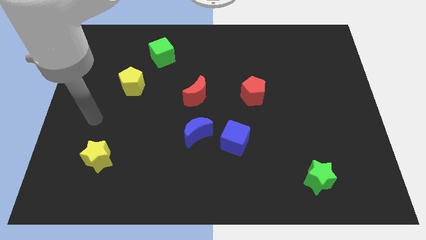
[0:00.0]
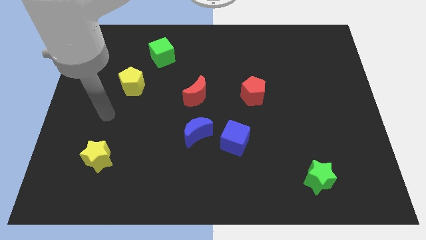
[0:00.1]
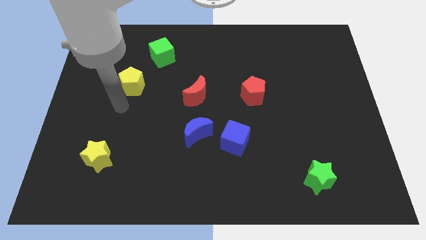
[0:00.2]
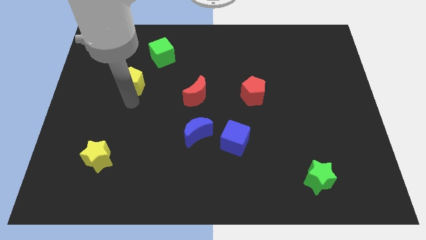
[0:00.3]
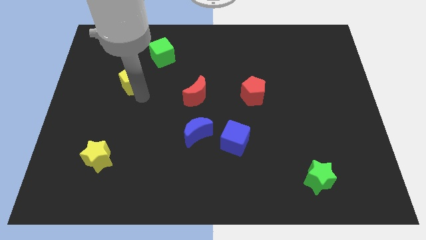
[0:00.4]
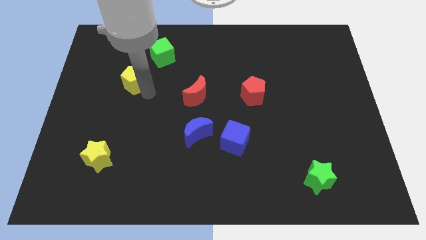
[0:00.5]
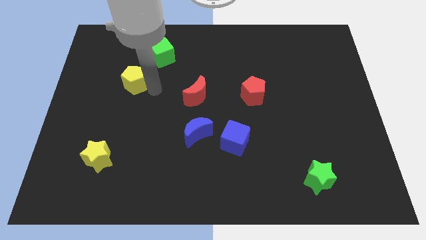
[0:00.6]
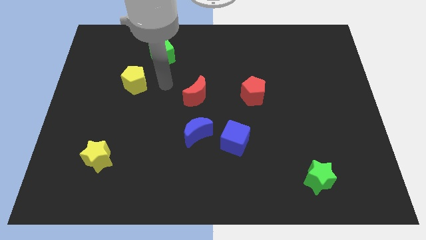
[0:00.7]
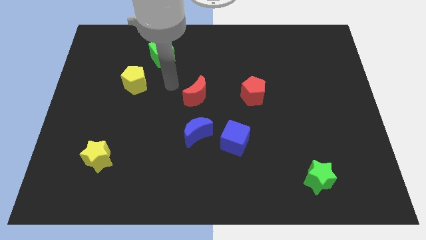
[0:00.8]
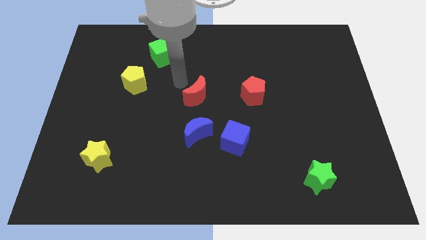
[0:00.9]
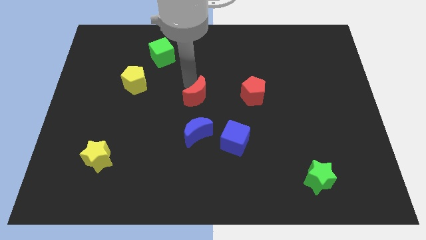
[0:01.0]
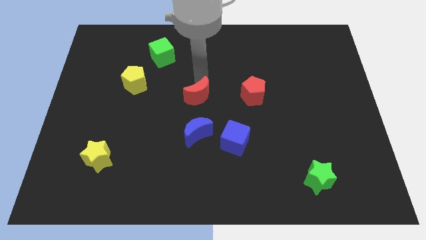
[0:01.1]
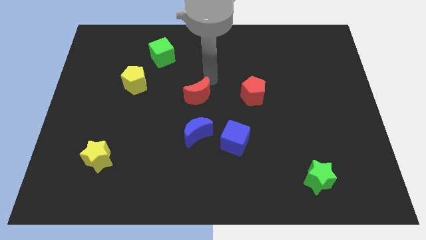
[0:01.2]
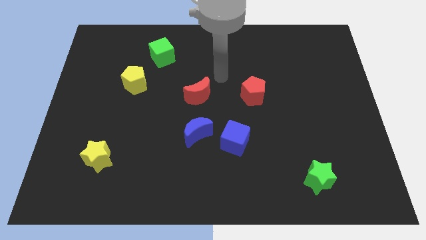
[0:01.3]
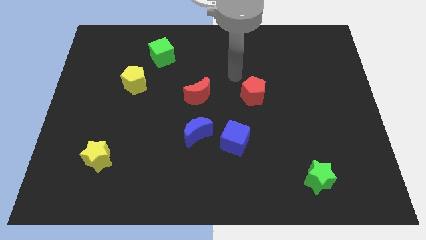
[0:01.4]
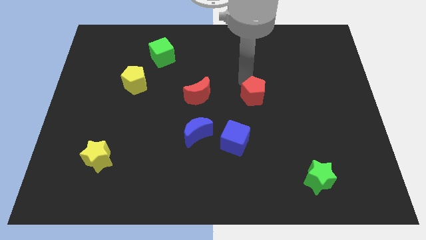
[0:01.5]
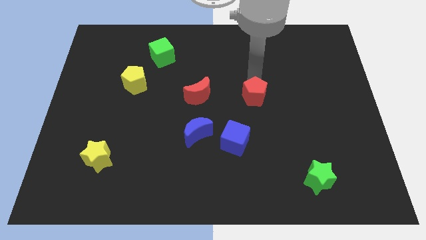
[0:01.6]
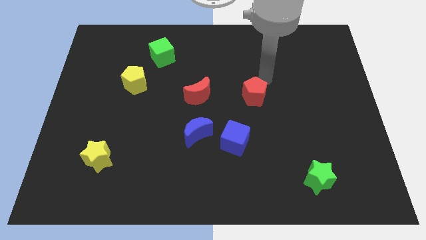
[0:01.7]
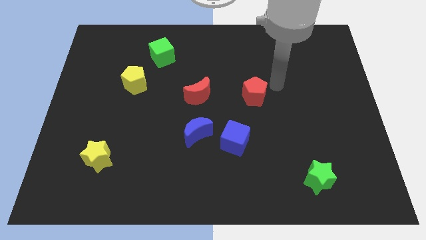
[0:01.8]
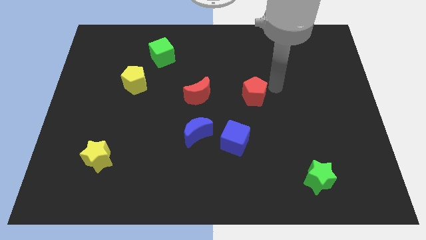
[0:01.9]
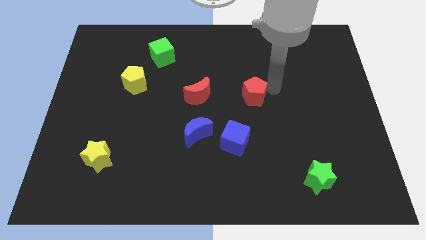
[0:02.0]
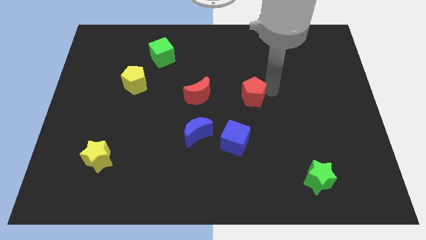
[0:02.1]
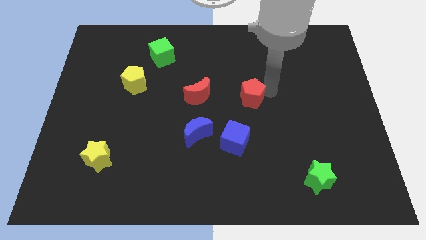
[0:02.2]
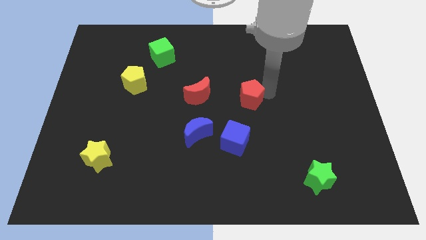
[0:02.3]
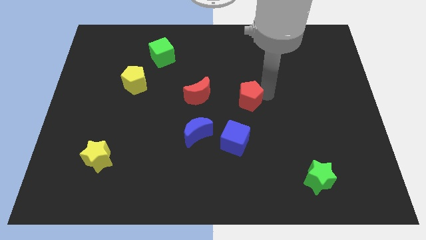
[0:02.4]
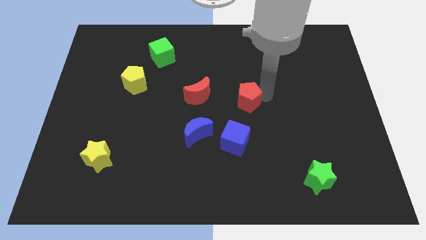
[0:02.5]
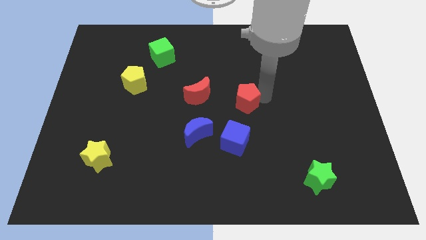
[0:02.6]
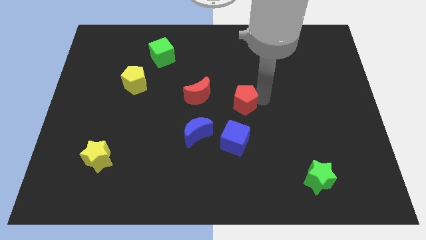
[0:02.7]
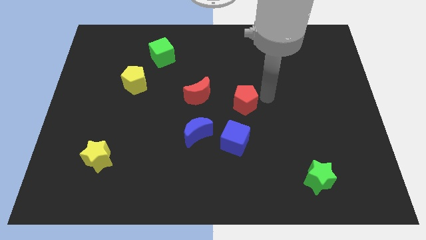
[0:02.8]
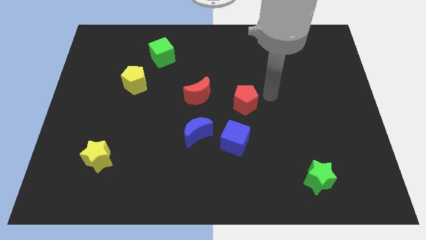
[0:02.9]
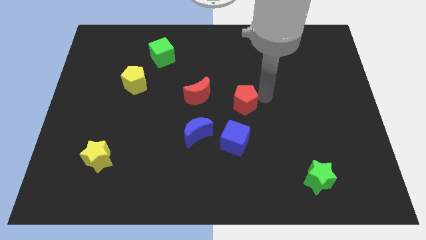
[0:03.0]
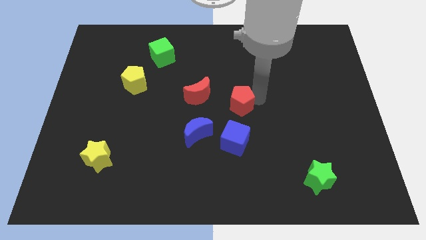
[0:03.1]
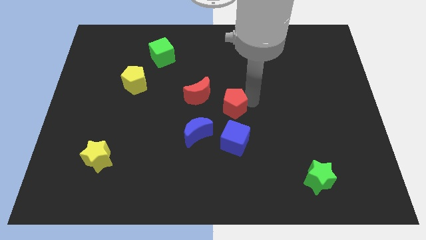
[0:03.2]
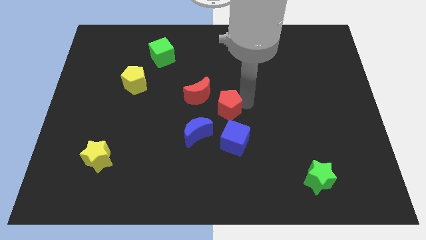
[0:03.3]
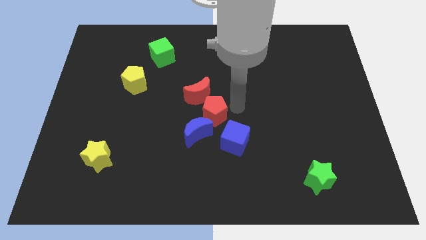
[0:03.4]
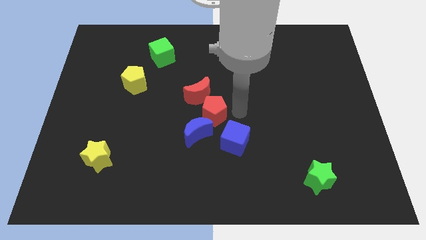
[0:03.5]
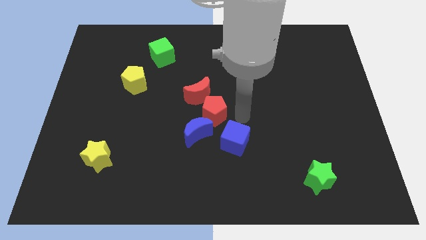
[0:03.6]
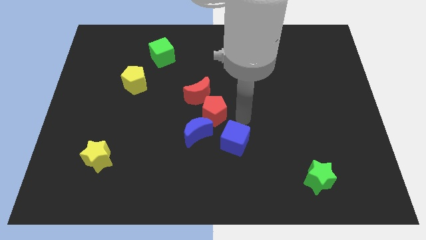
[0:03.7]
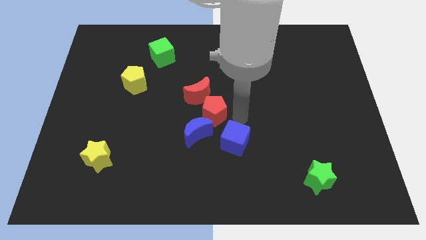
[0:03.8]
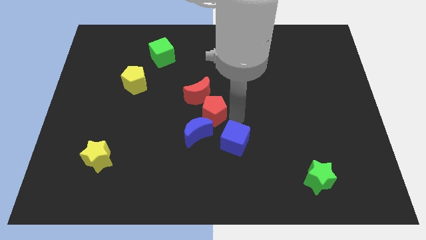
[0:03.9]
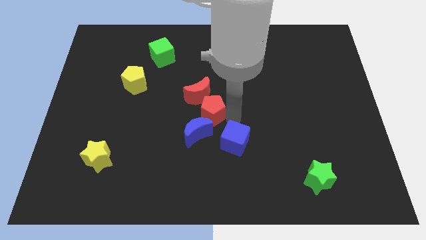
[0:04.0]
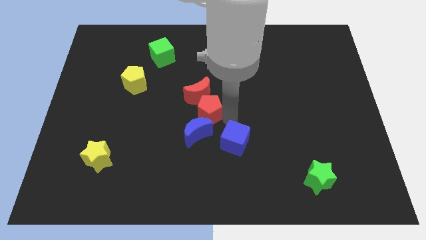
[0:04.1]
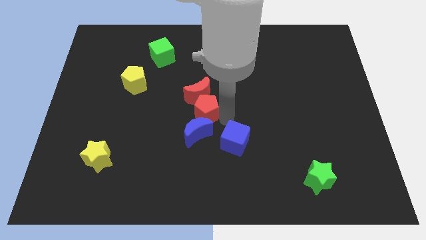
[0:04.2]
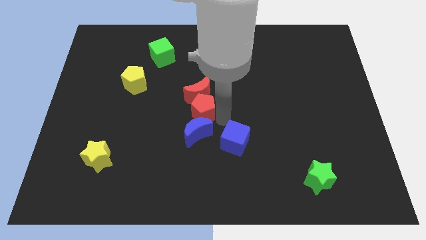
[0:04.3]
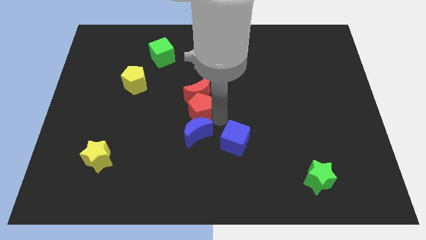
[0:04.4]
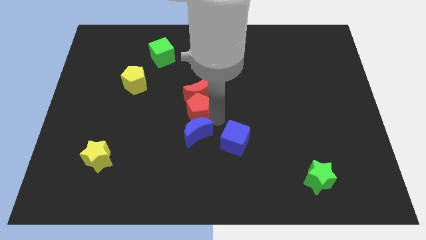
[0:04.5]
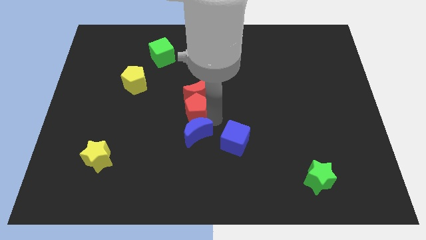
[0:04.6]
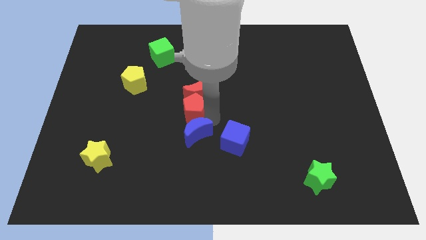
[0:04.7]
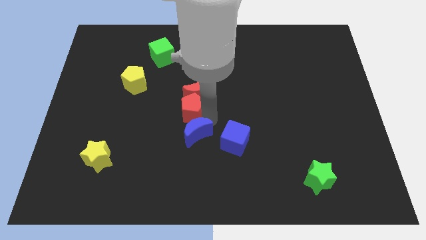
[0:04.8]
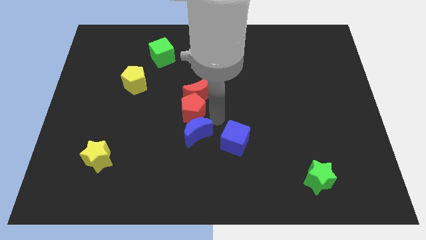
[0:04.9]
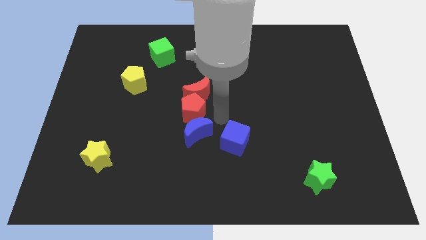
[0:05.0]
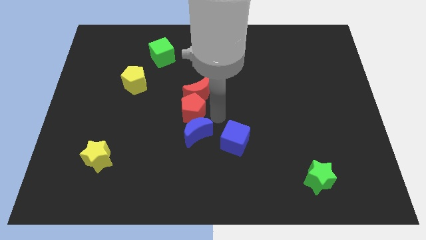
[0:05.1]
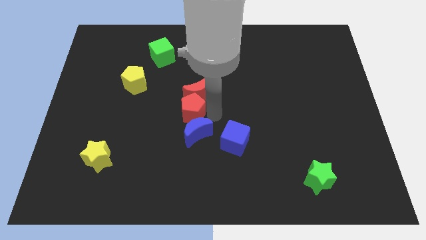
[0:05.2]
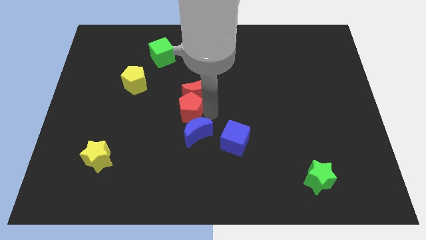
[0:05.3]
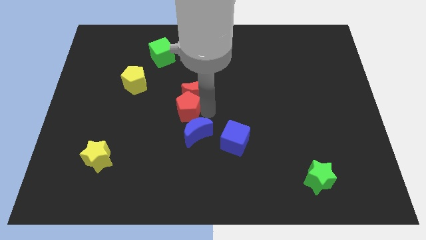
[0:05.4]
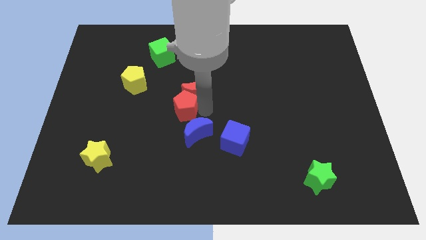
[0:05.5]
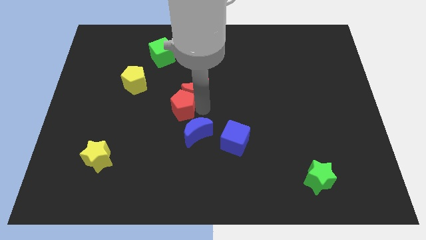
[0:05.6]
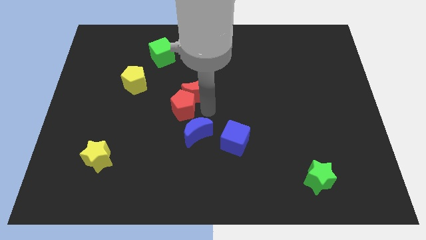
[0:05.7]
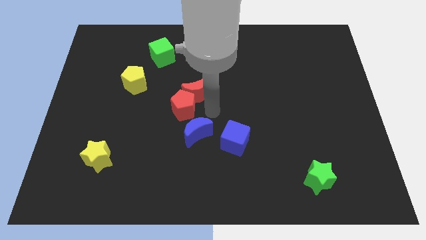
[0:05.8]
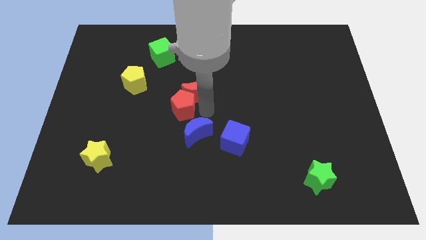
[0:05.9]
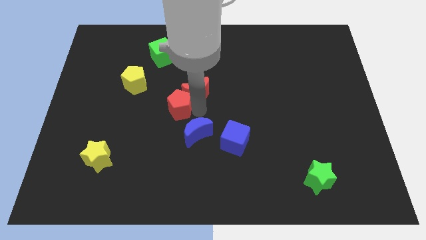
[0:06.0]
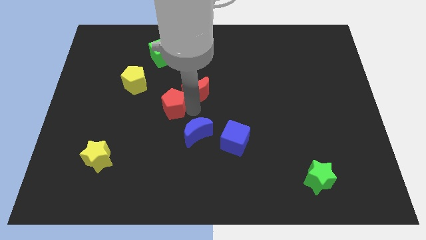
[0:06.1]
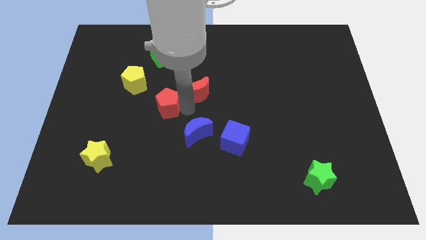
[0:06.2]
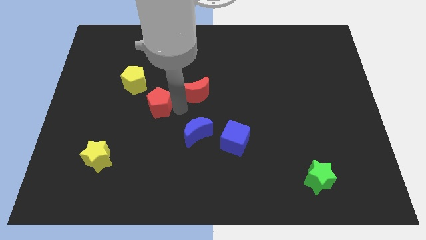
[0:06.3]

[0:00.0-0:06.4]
push the red pentagon to the left

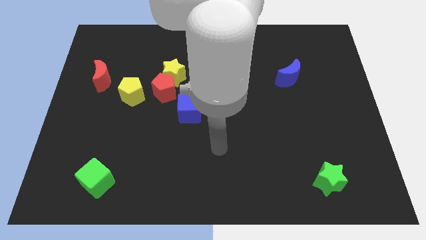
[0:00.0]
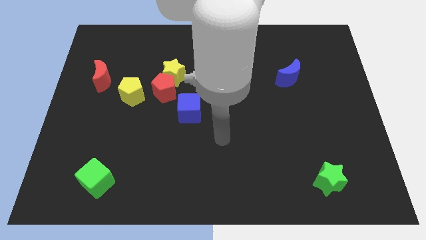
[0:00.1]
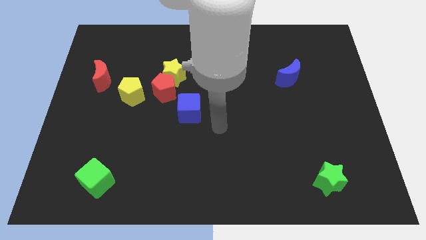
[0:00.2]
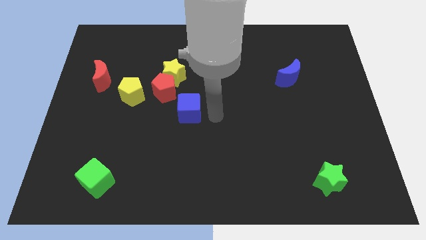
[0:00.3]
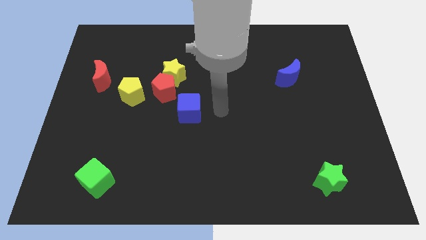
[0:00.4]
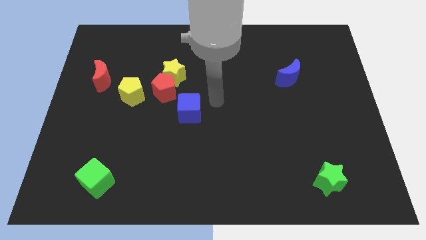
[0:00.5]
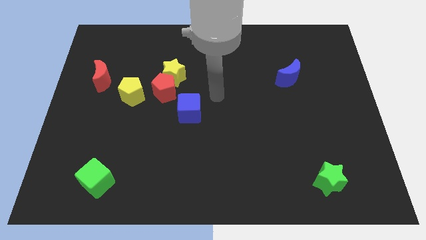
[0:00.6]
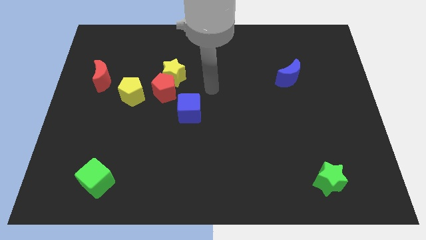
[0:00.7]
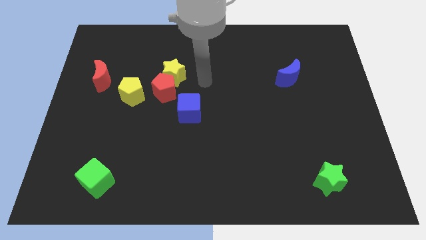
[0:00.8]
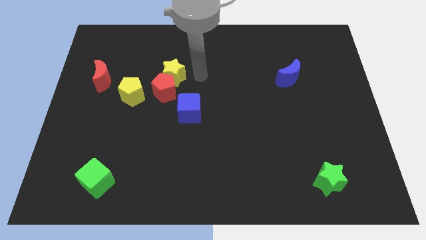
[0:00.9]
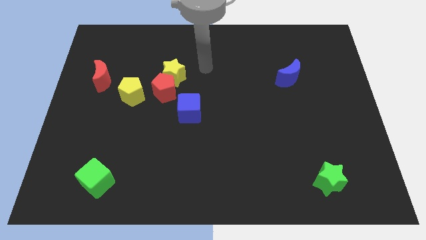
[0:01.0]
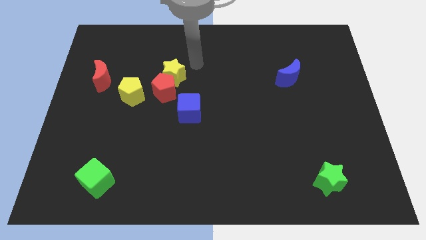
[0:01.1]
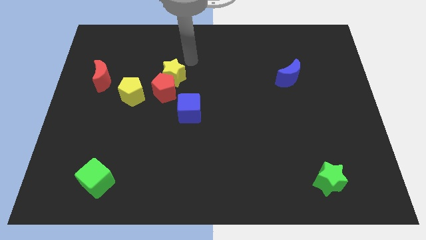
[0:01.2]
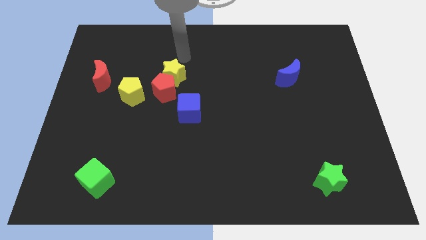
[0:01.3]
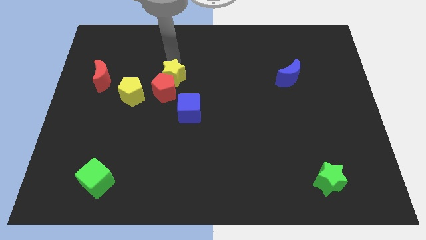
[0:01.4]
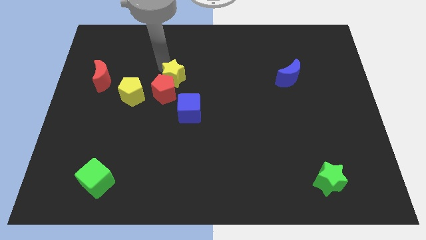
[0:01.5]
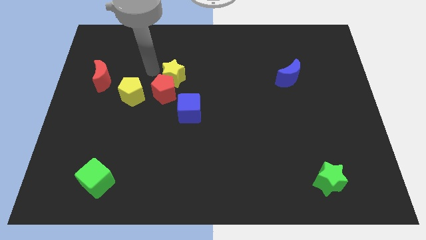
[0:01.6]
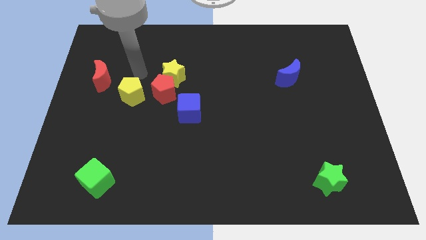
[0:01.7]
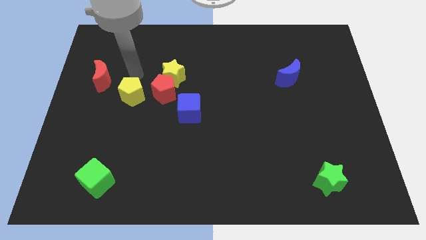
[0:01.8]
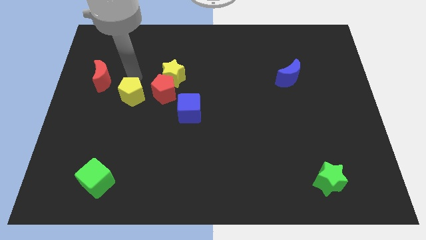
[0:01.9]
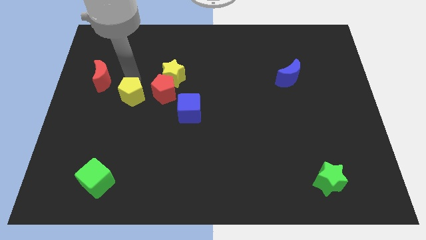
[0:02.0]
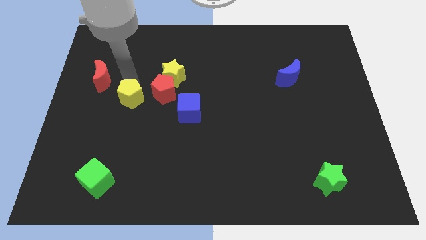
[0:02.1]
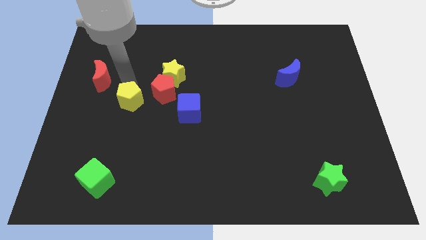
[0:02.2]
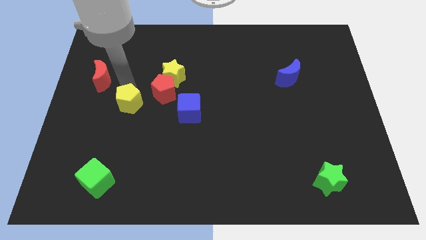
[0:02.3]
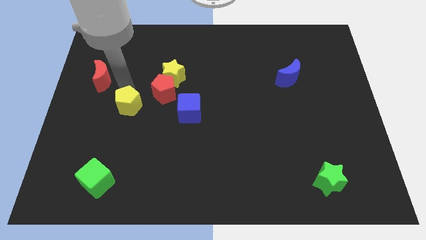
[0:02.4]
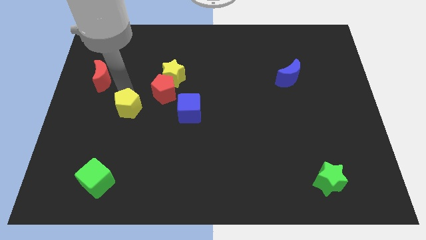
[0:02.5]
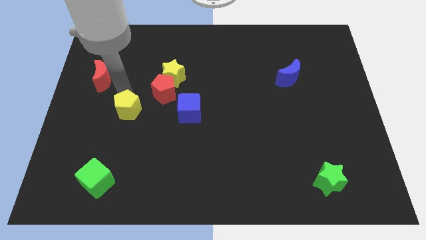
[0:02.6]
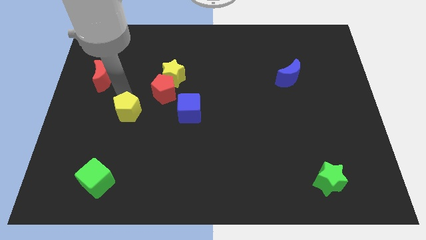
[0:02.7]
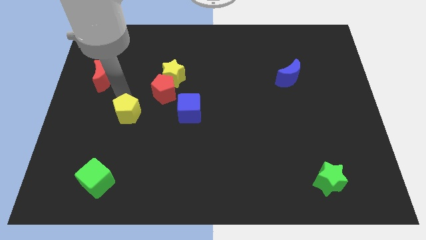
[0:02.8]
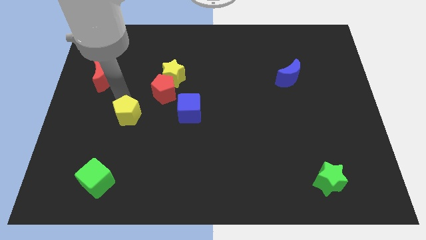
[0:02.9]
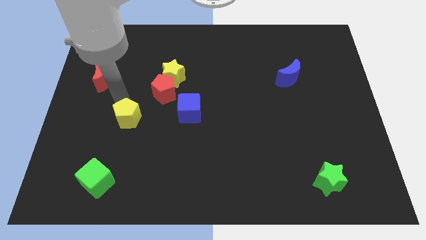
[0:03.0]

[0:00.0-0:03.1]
move the yellow pentagon down a little
